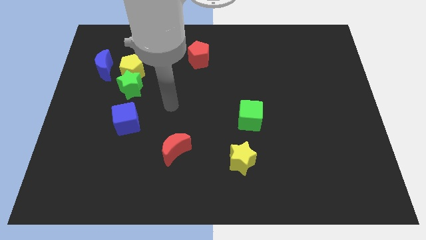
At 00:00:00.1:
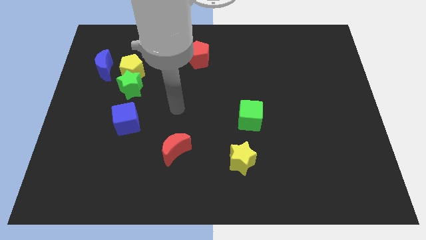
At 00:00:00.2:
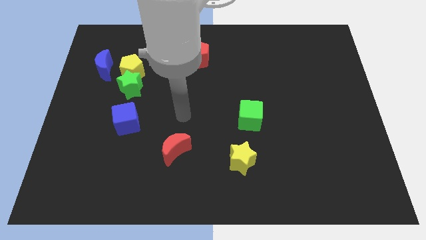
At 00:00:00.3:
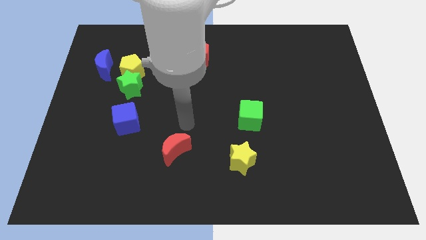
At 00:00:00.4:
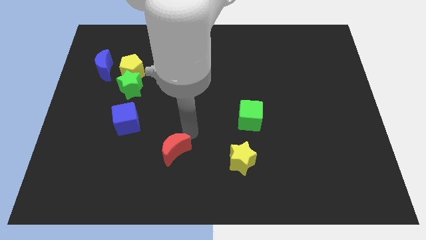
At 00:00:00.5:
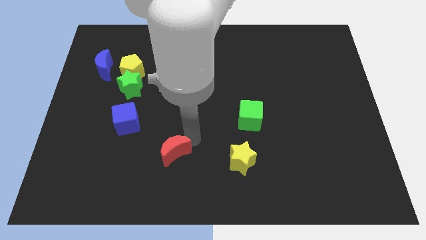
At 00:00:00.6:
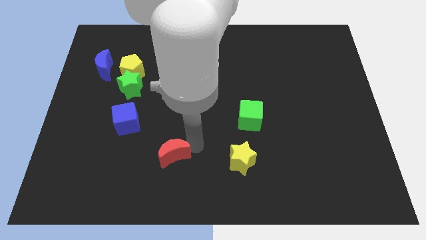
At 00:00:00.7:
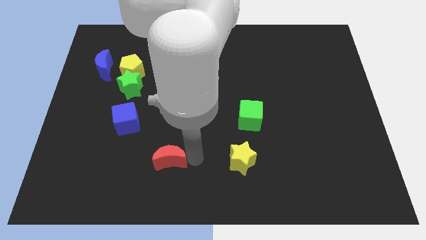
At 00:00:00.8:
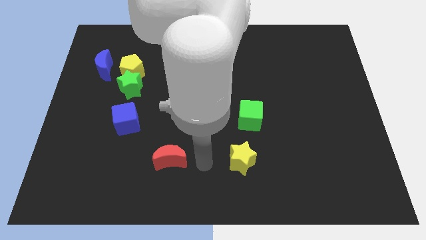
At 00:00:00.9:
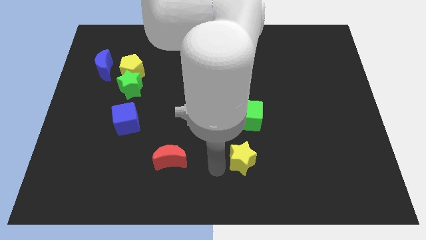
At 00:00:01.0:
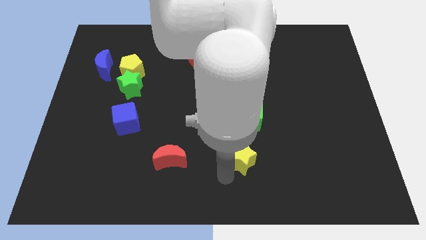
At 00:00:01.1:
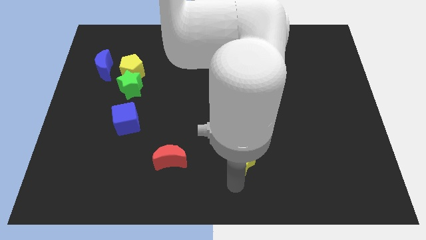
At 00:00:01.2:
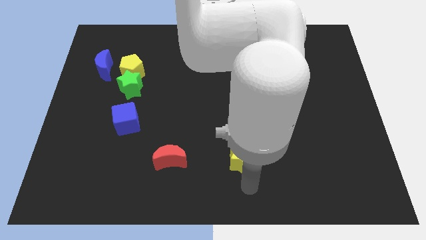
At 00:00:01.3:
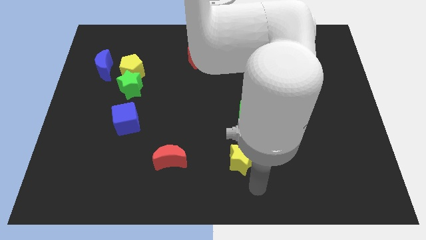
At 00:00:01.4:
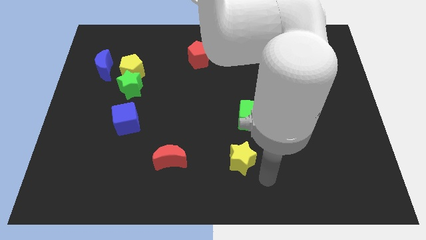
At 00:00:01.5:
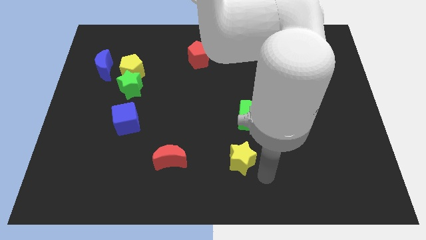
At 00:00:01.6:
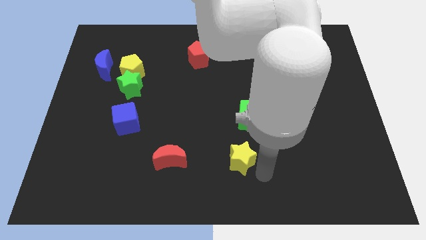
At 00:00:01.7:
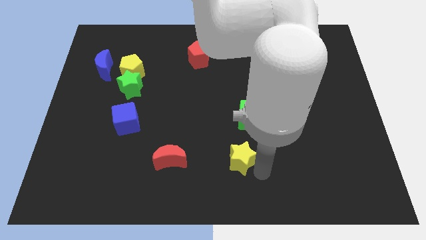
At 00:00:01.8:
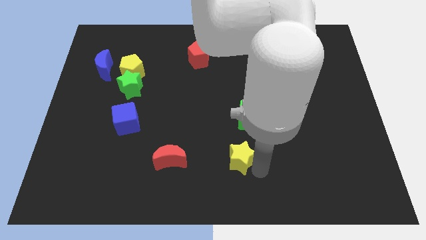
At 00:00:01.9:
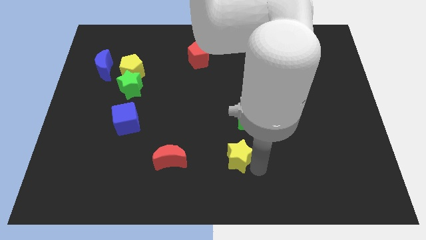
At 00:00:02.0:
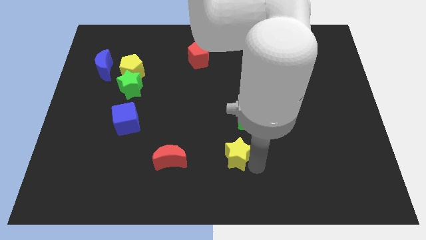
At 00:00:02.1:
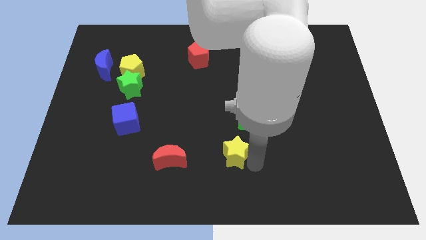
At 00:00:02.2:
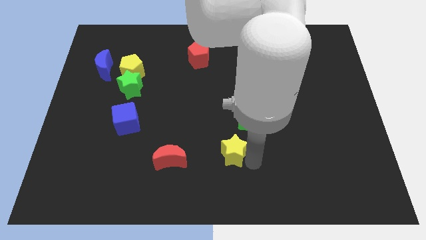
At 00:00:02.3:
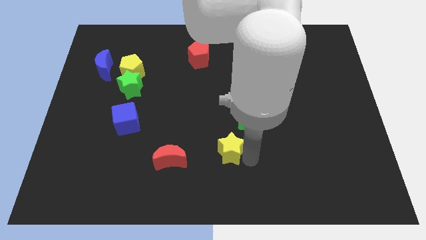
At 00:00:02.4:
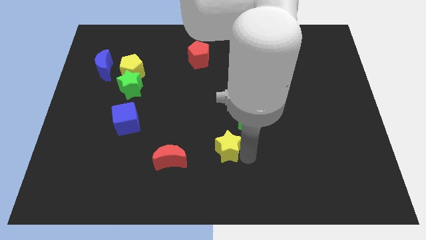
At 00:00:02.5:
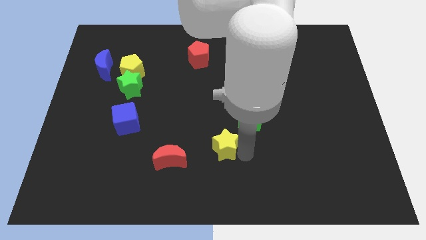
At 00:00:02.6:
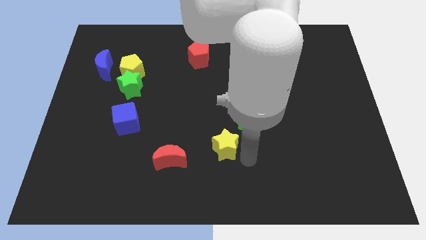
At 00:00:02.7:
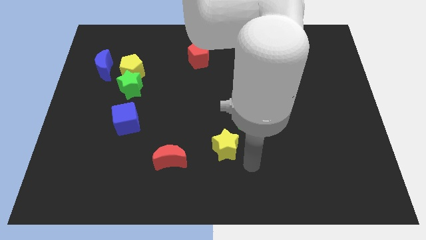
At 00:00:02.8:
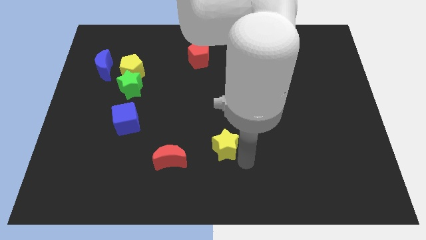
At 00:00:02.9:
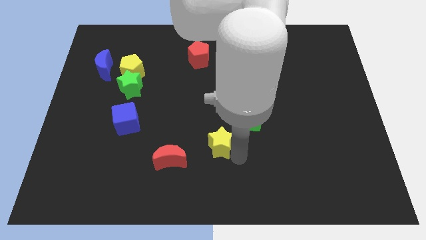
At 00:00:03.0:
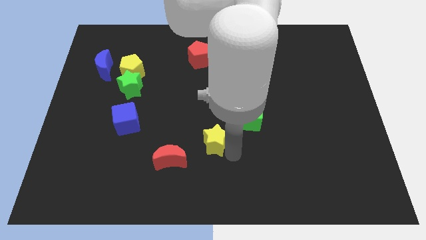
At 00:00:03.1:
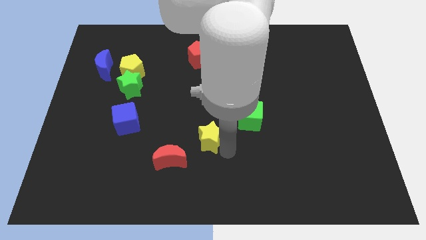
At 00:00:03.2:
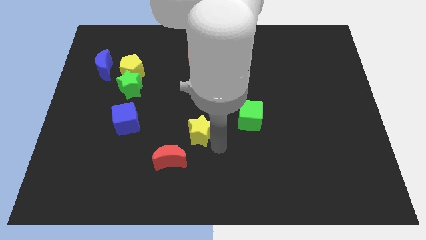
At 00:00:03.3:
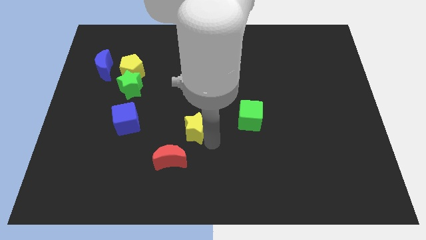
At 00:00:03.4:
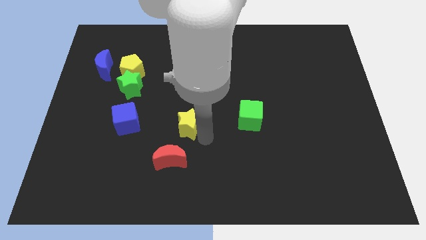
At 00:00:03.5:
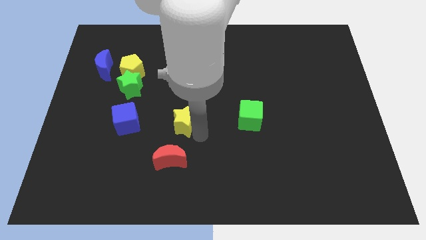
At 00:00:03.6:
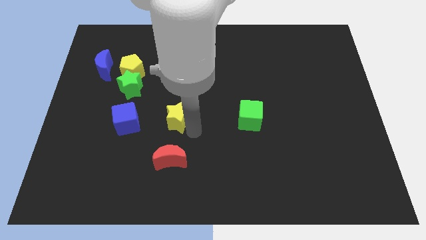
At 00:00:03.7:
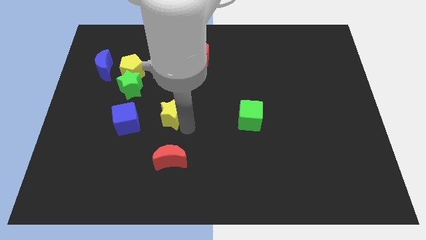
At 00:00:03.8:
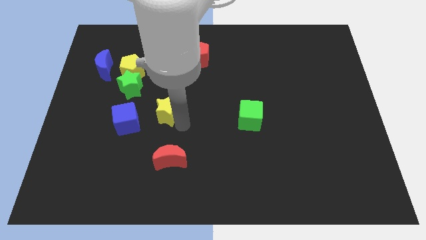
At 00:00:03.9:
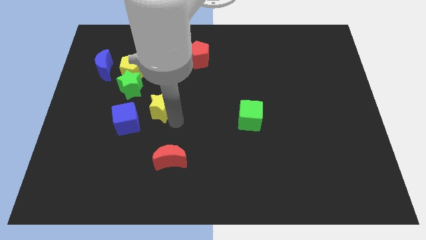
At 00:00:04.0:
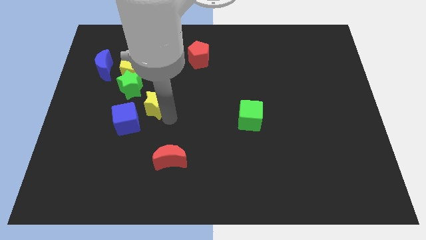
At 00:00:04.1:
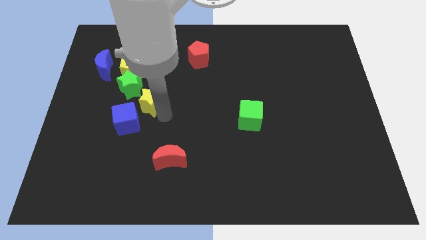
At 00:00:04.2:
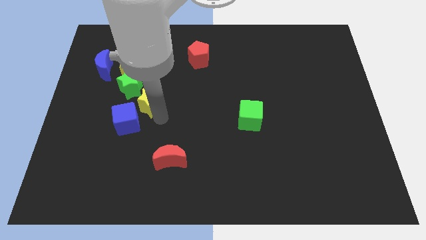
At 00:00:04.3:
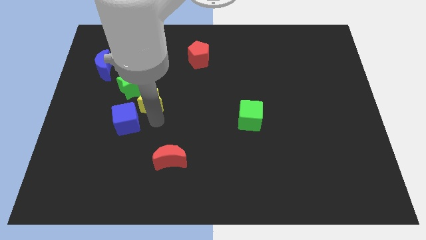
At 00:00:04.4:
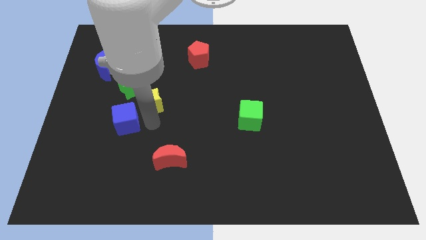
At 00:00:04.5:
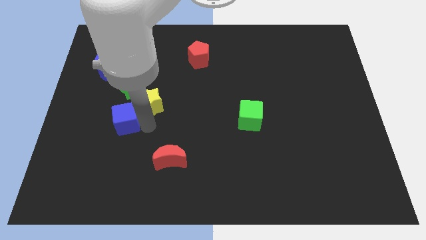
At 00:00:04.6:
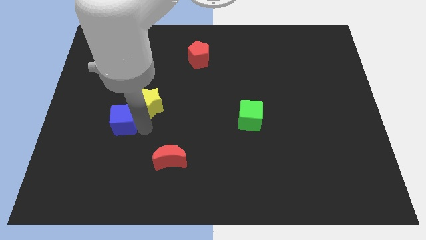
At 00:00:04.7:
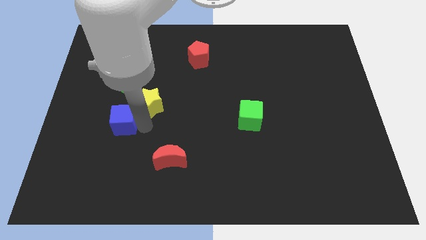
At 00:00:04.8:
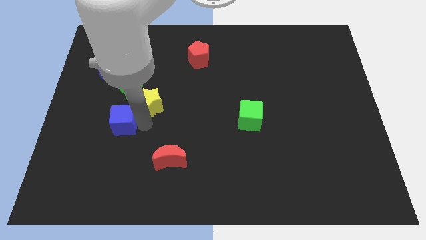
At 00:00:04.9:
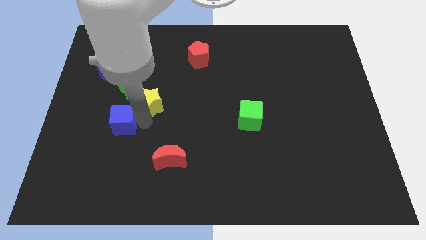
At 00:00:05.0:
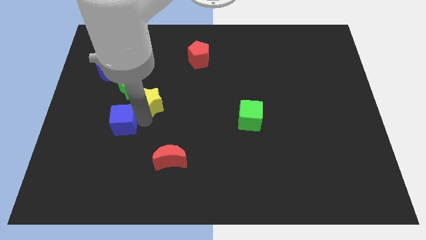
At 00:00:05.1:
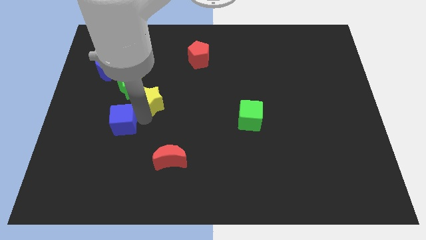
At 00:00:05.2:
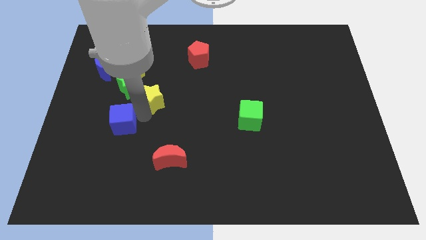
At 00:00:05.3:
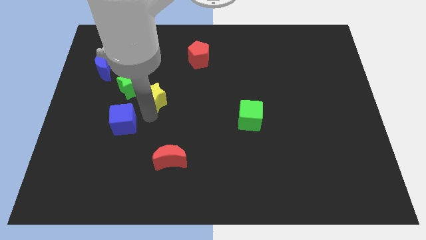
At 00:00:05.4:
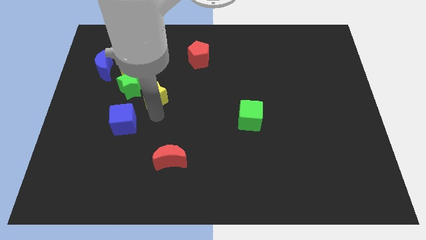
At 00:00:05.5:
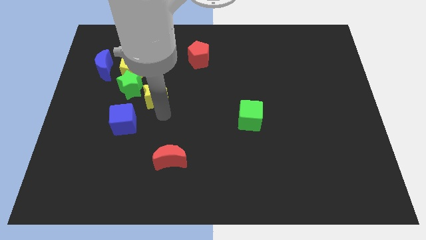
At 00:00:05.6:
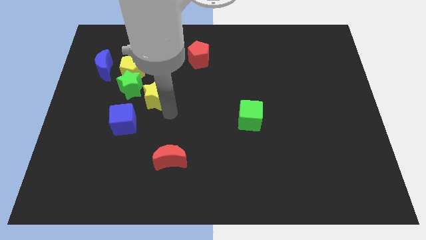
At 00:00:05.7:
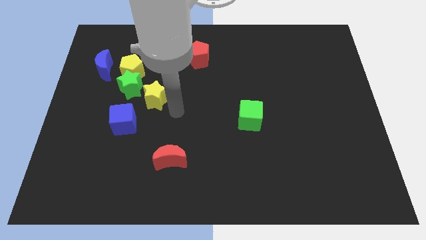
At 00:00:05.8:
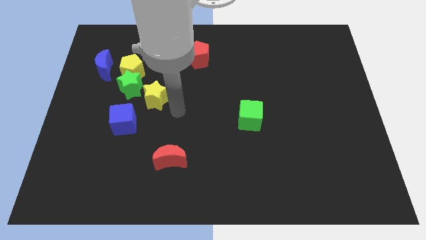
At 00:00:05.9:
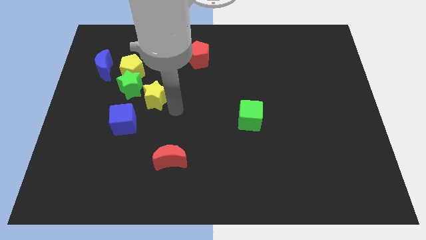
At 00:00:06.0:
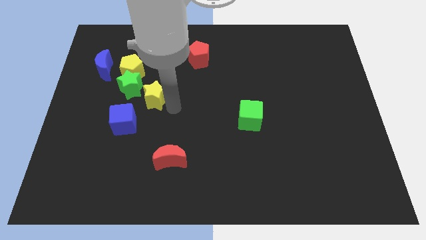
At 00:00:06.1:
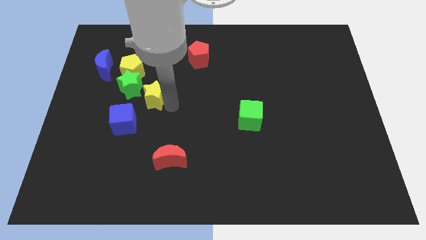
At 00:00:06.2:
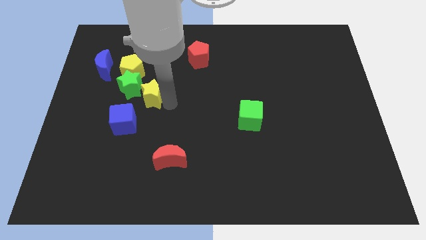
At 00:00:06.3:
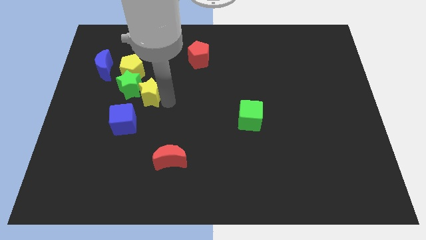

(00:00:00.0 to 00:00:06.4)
put the yellow star next to the green star

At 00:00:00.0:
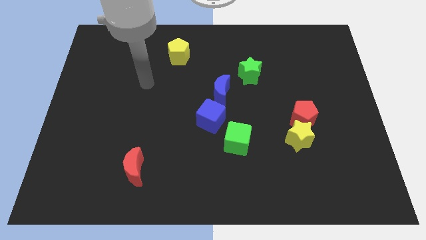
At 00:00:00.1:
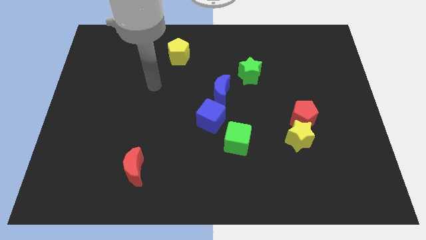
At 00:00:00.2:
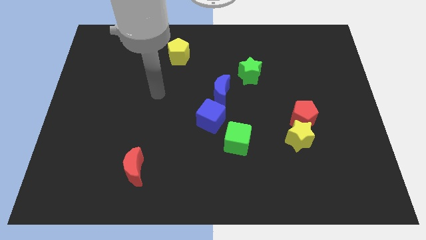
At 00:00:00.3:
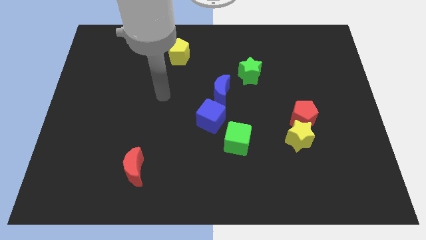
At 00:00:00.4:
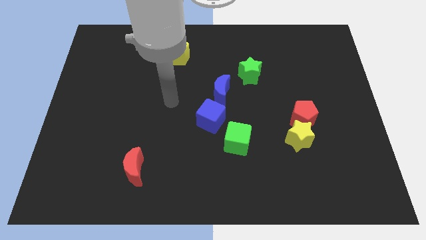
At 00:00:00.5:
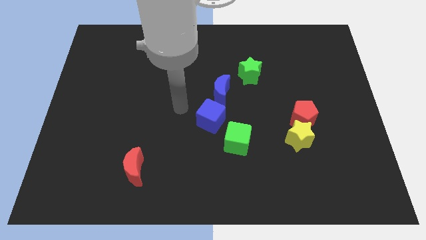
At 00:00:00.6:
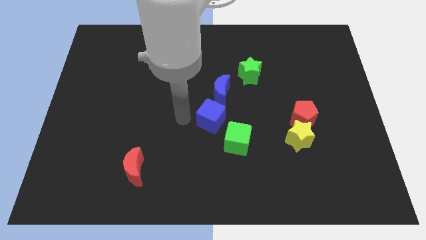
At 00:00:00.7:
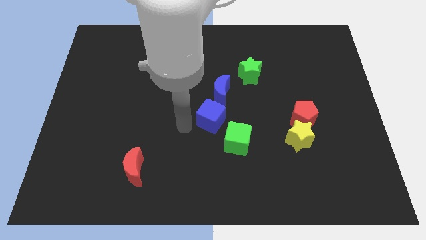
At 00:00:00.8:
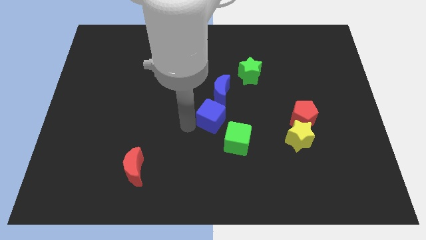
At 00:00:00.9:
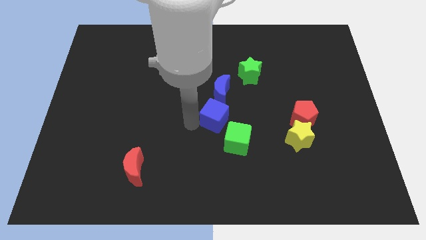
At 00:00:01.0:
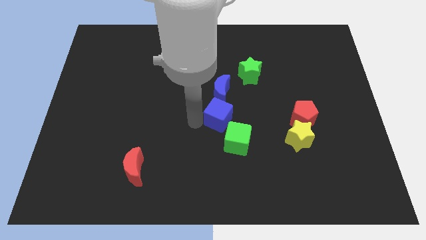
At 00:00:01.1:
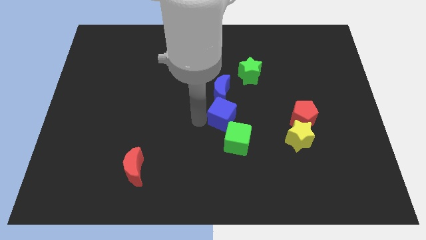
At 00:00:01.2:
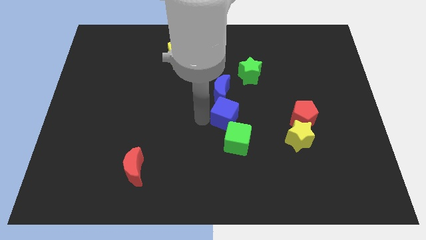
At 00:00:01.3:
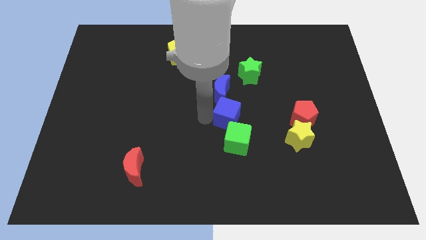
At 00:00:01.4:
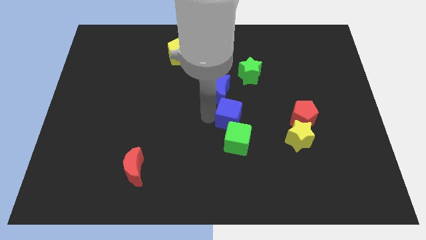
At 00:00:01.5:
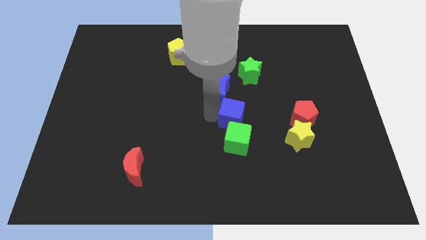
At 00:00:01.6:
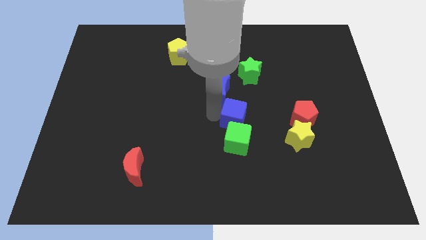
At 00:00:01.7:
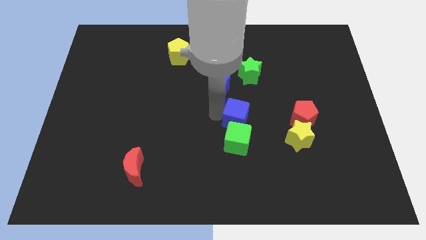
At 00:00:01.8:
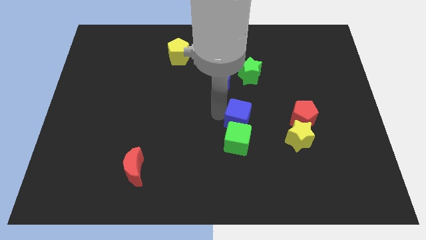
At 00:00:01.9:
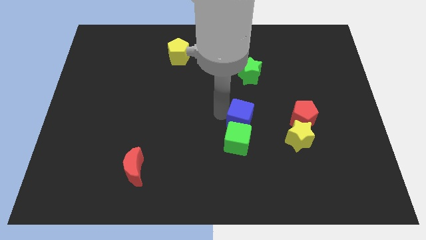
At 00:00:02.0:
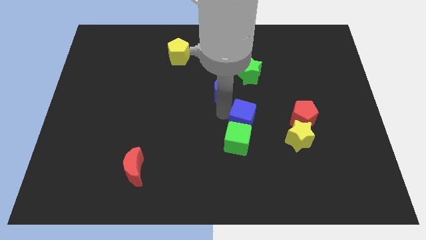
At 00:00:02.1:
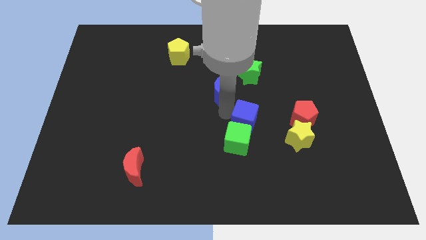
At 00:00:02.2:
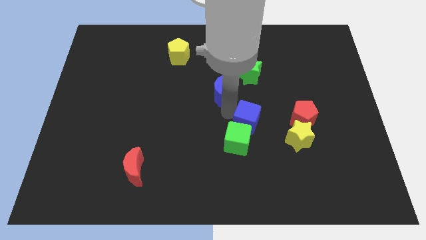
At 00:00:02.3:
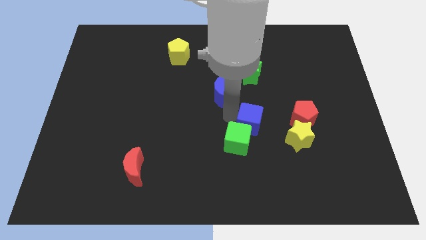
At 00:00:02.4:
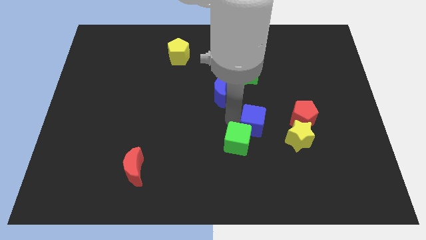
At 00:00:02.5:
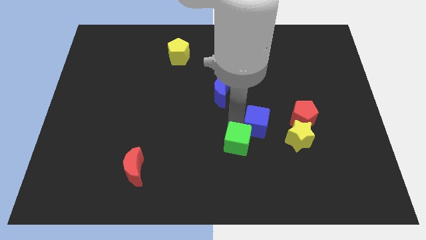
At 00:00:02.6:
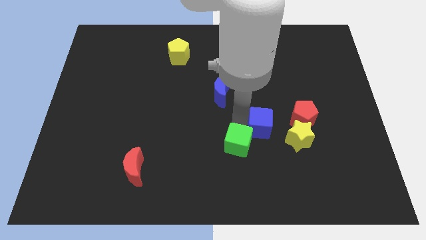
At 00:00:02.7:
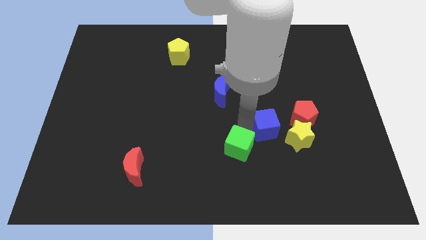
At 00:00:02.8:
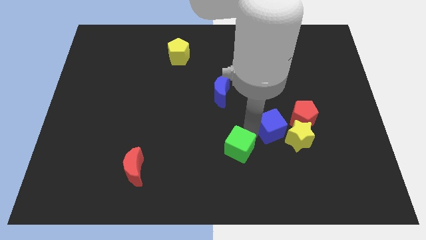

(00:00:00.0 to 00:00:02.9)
put the blue cube close to the yellow star
